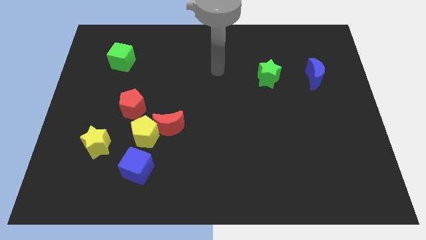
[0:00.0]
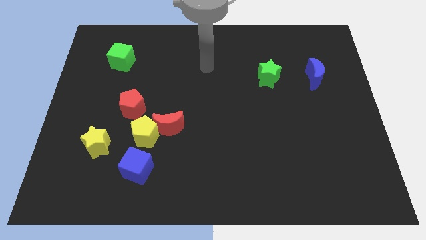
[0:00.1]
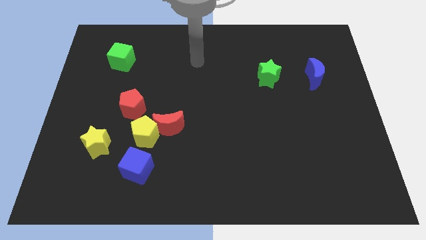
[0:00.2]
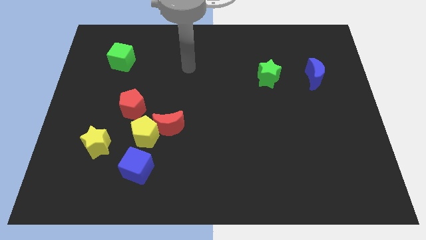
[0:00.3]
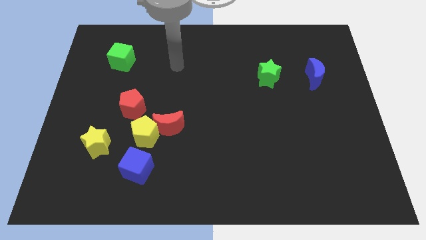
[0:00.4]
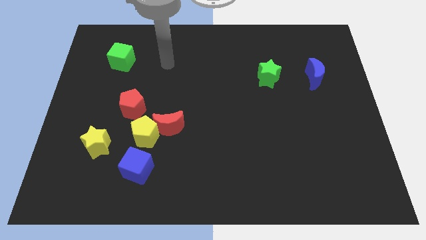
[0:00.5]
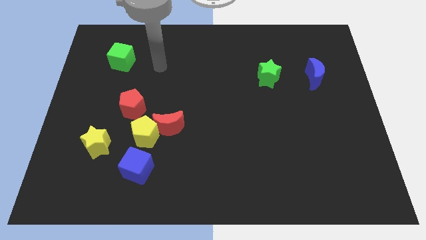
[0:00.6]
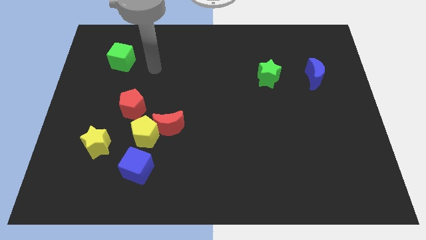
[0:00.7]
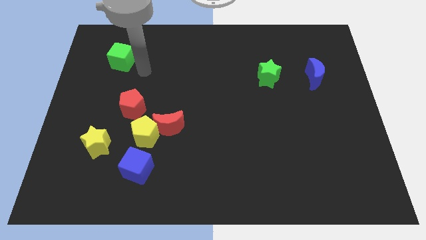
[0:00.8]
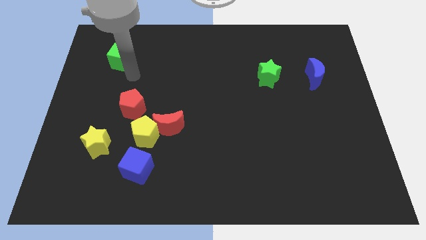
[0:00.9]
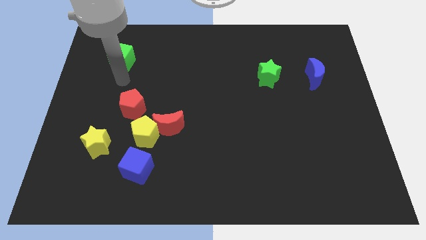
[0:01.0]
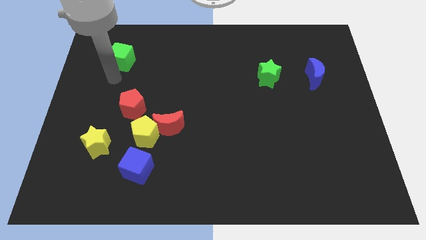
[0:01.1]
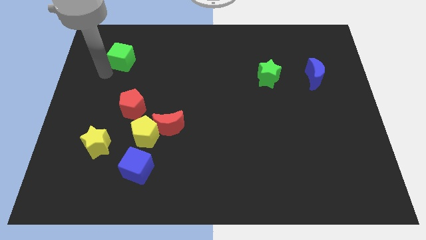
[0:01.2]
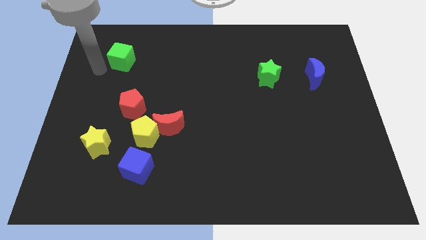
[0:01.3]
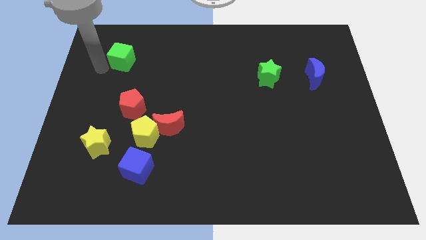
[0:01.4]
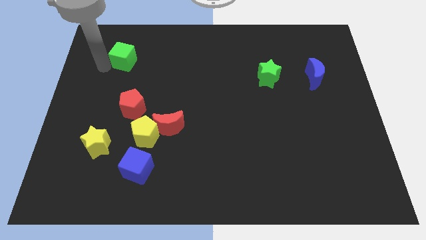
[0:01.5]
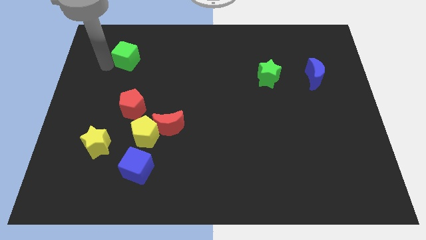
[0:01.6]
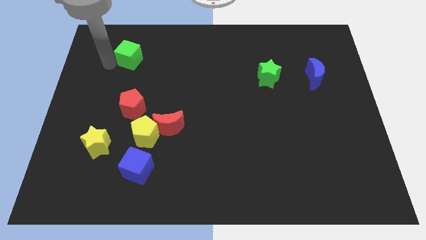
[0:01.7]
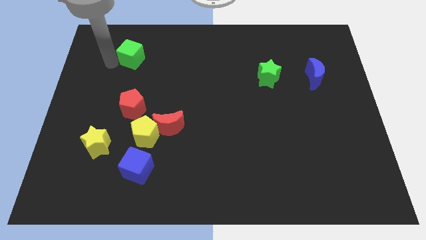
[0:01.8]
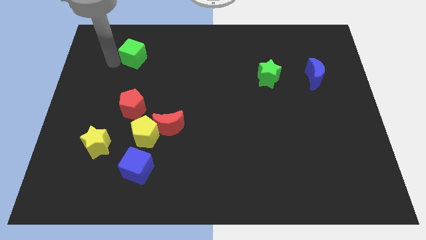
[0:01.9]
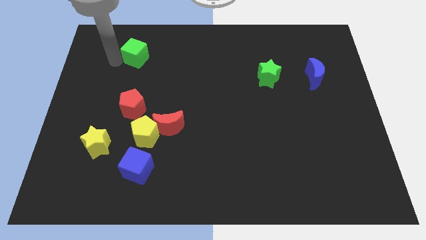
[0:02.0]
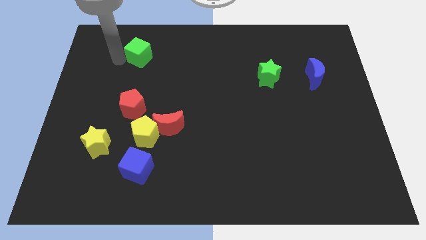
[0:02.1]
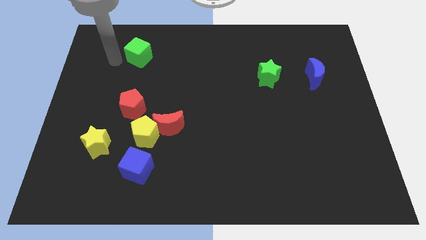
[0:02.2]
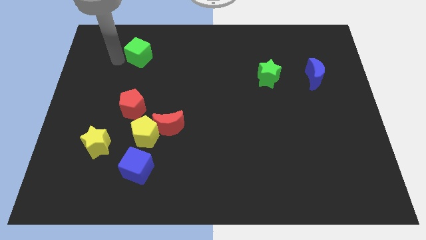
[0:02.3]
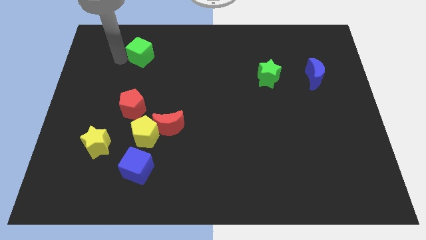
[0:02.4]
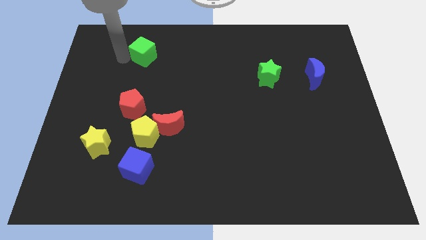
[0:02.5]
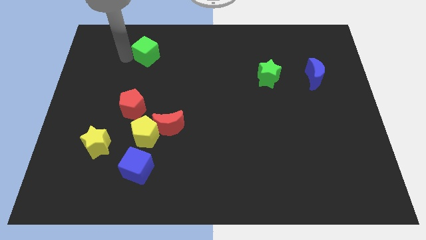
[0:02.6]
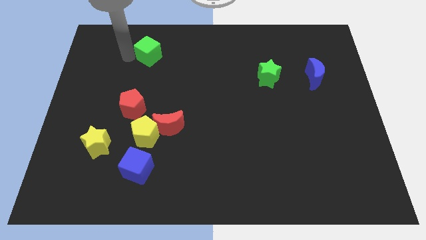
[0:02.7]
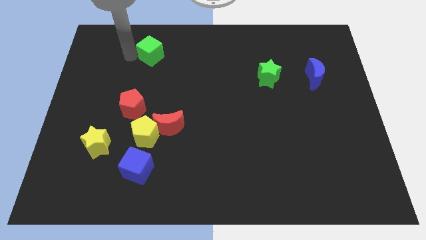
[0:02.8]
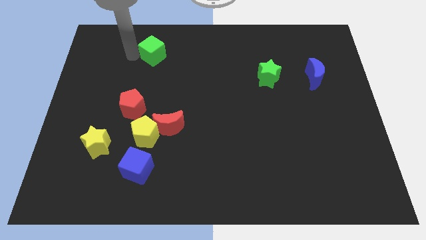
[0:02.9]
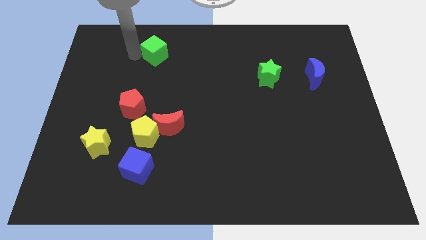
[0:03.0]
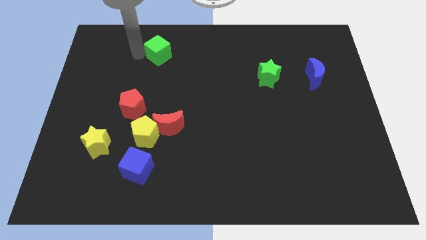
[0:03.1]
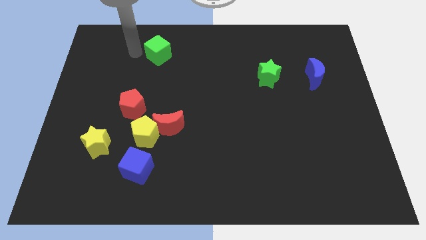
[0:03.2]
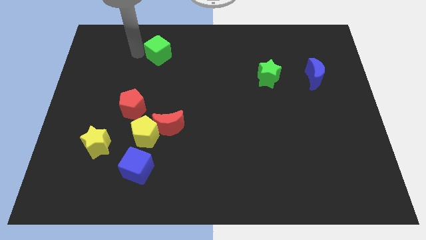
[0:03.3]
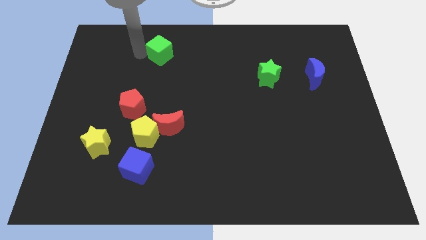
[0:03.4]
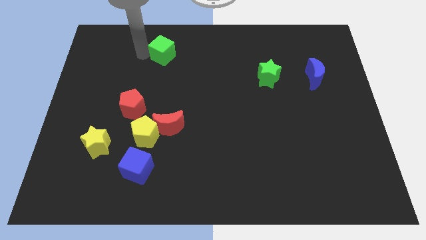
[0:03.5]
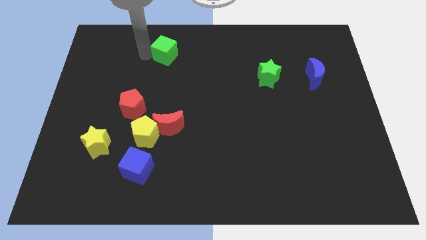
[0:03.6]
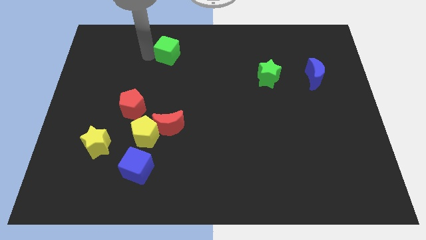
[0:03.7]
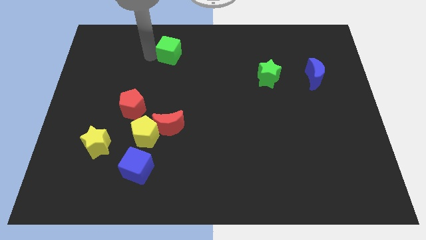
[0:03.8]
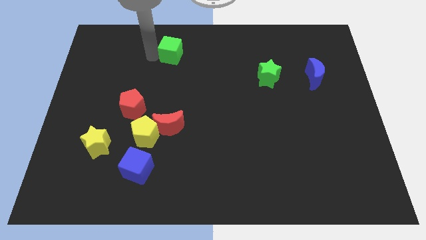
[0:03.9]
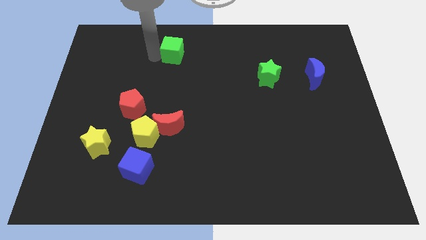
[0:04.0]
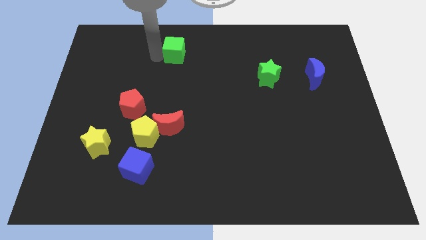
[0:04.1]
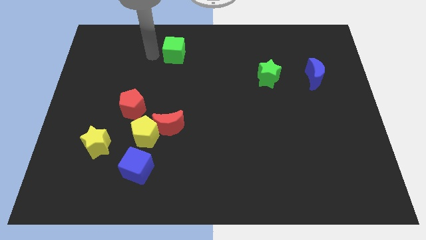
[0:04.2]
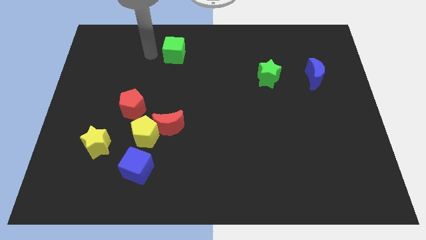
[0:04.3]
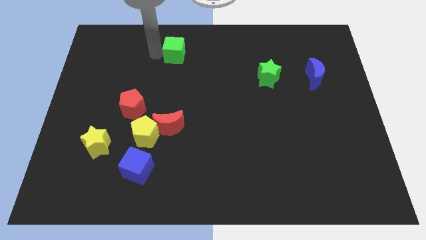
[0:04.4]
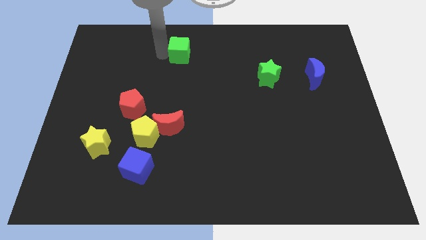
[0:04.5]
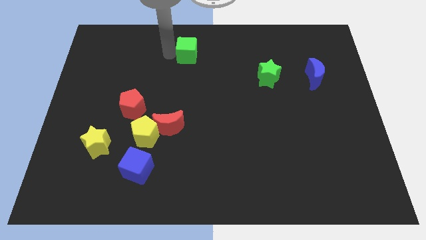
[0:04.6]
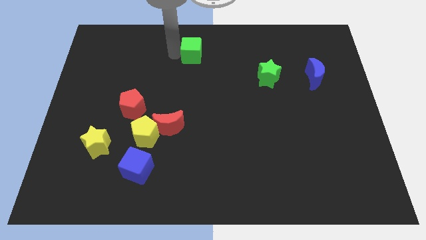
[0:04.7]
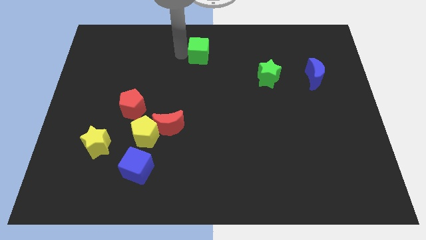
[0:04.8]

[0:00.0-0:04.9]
push the green cube to the right

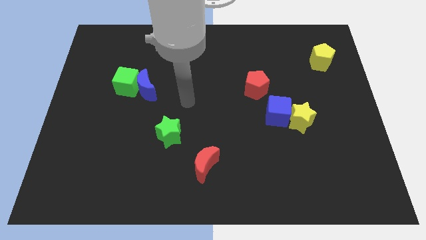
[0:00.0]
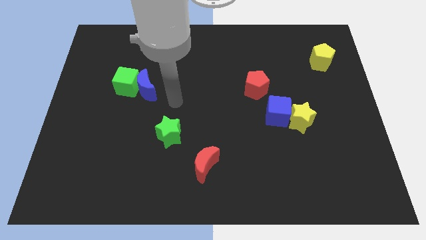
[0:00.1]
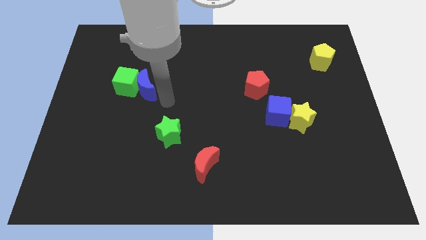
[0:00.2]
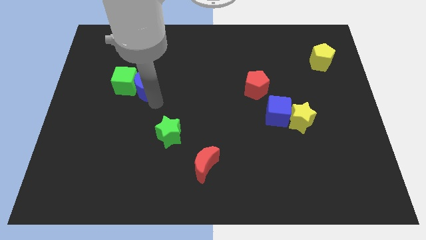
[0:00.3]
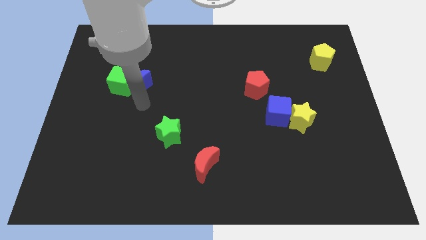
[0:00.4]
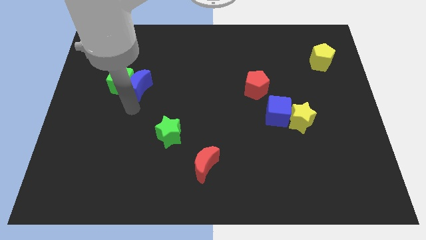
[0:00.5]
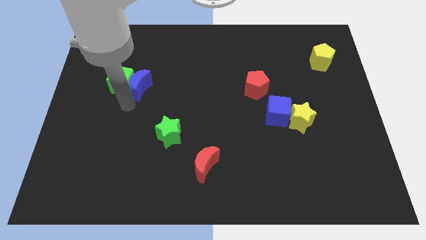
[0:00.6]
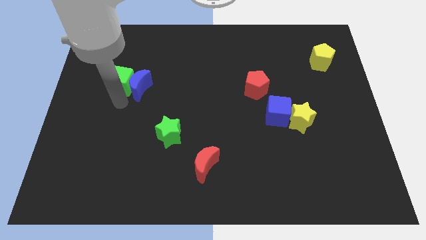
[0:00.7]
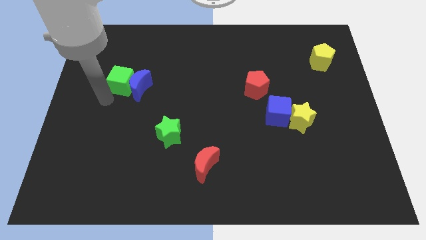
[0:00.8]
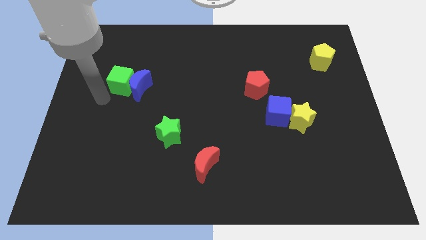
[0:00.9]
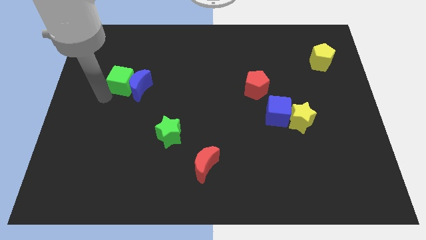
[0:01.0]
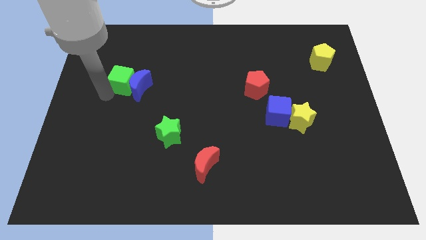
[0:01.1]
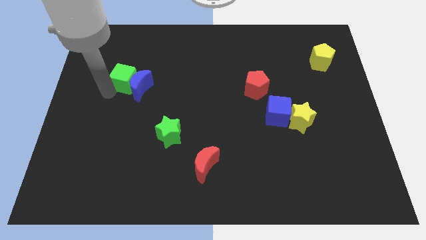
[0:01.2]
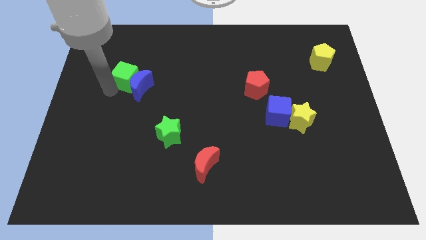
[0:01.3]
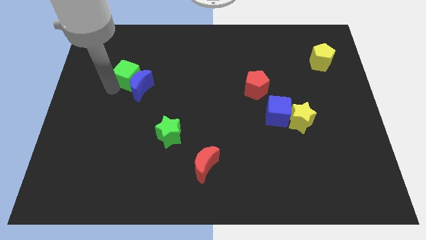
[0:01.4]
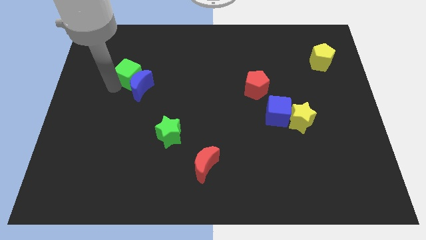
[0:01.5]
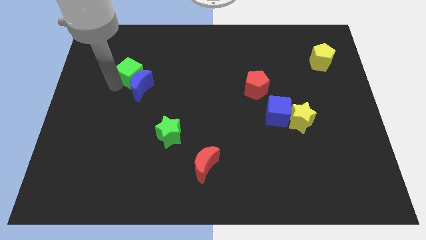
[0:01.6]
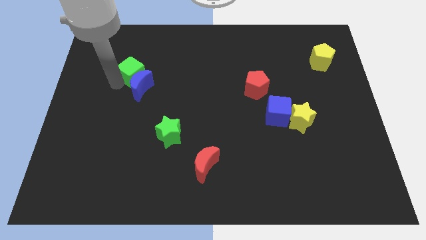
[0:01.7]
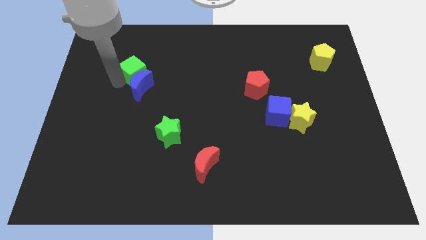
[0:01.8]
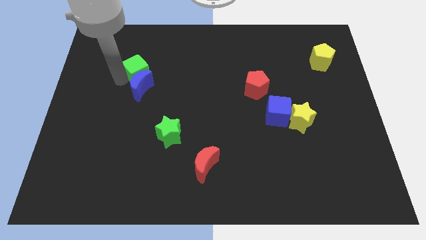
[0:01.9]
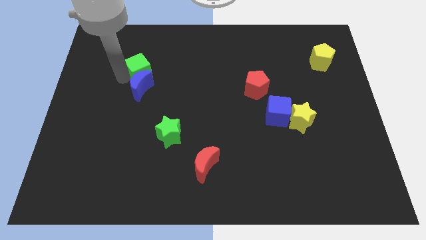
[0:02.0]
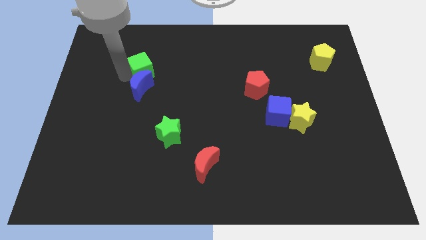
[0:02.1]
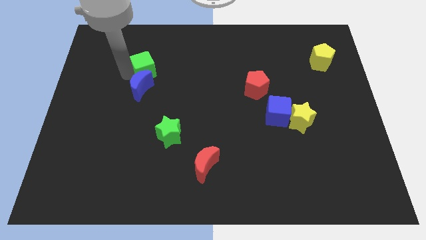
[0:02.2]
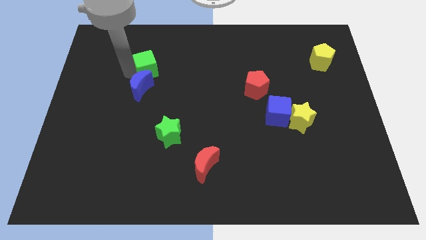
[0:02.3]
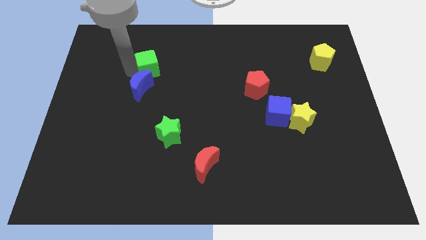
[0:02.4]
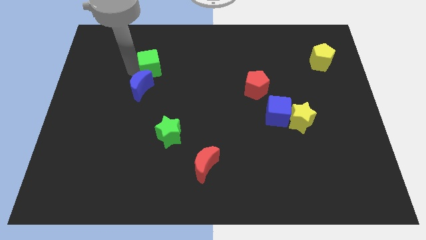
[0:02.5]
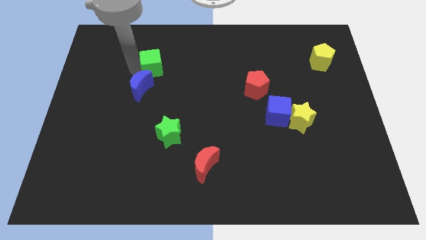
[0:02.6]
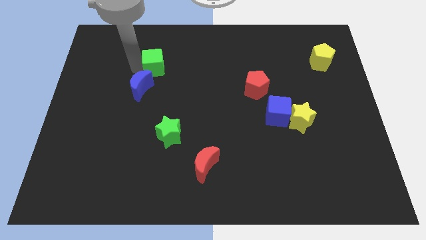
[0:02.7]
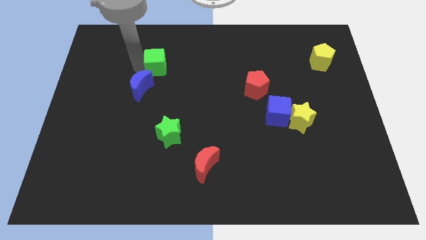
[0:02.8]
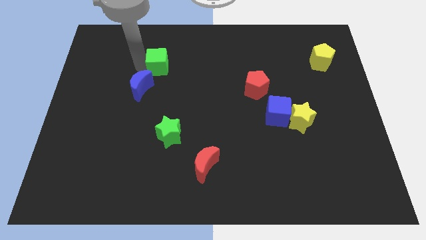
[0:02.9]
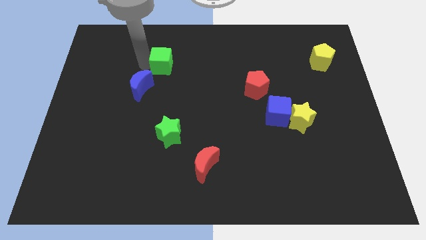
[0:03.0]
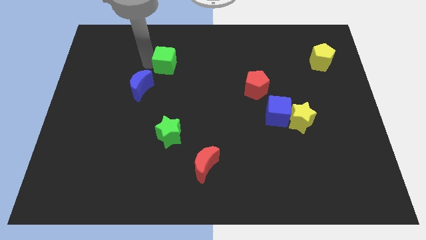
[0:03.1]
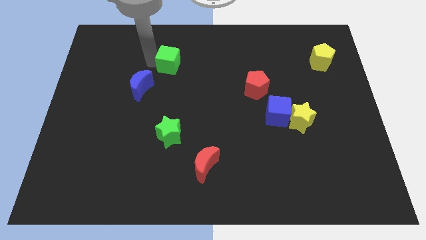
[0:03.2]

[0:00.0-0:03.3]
slightly push the green cube to the right
